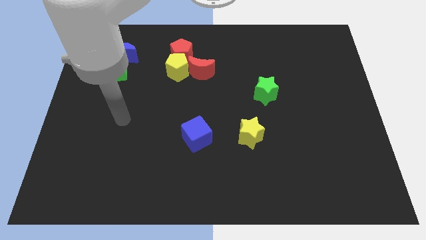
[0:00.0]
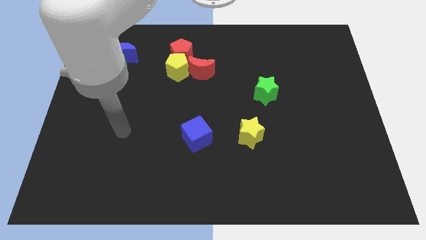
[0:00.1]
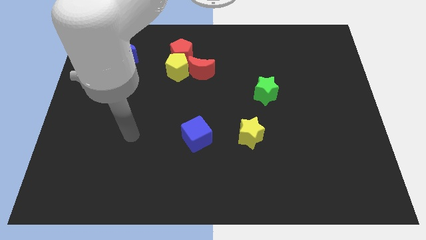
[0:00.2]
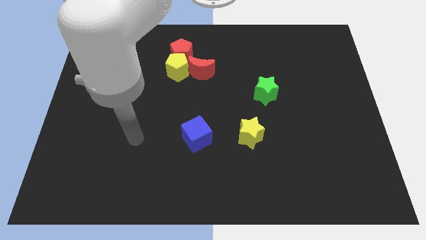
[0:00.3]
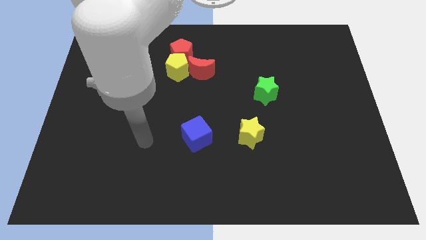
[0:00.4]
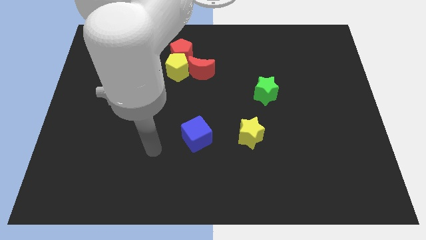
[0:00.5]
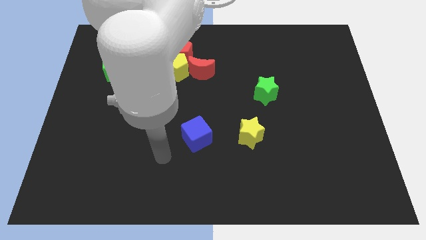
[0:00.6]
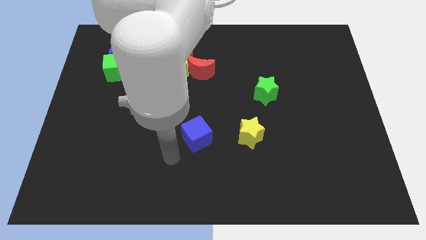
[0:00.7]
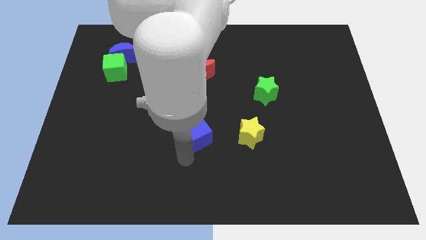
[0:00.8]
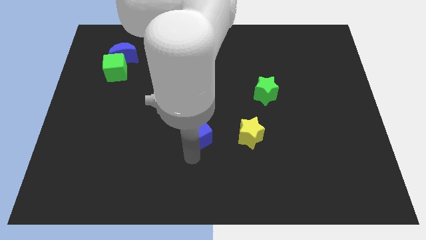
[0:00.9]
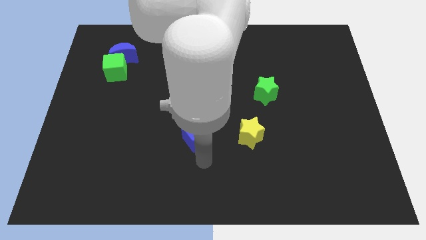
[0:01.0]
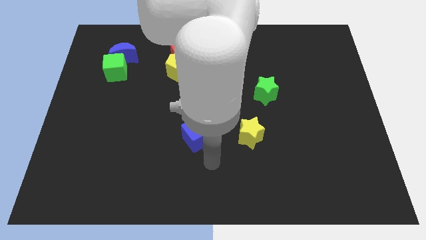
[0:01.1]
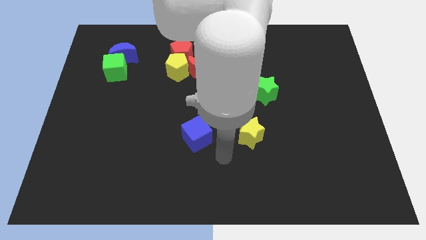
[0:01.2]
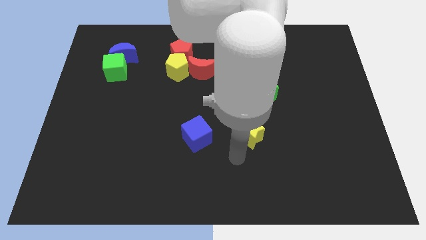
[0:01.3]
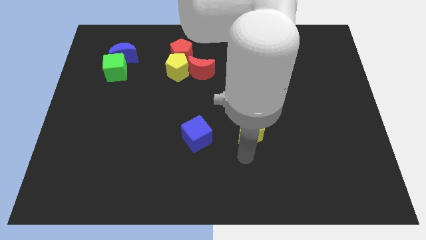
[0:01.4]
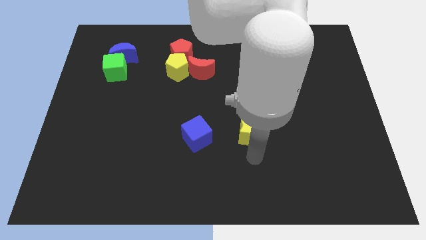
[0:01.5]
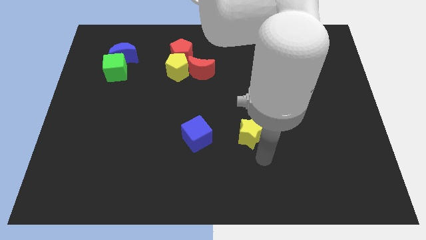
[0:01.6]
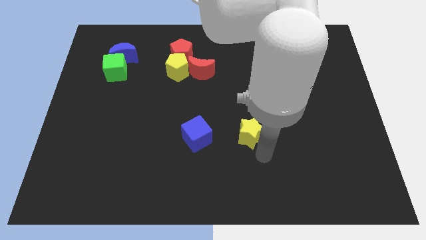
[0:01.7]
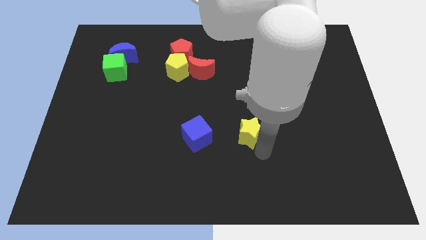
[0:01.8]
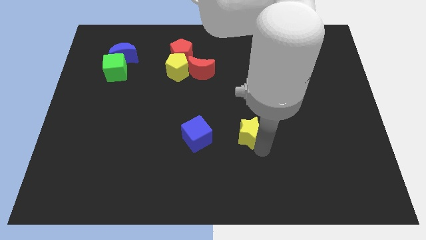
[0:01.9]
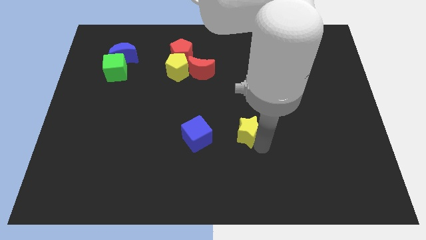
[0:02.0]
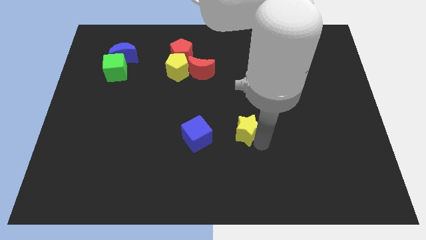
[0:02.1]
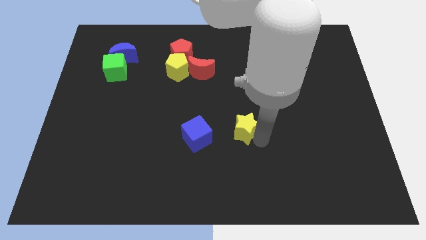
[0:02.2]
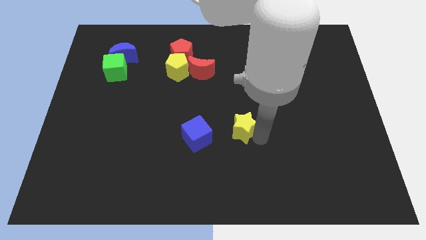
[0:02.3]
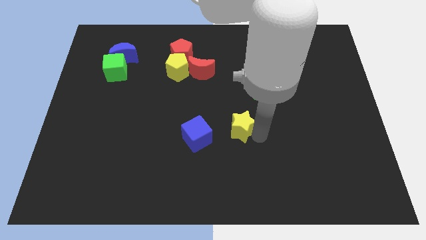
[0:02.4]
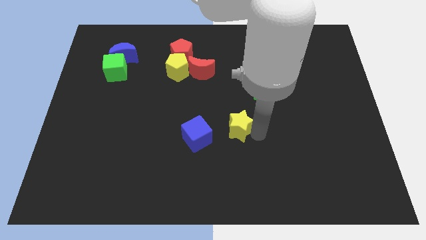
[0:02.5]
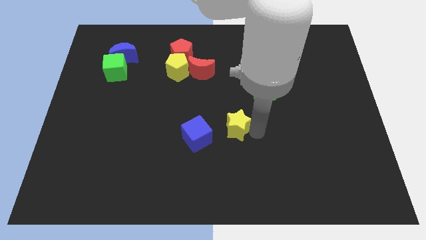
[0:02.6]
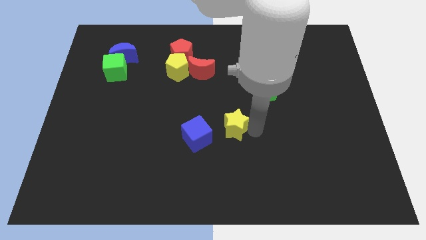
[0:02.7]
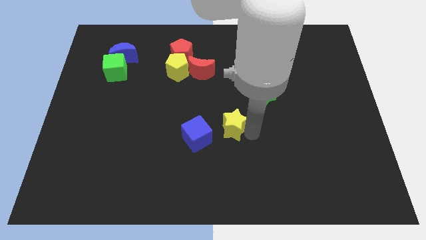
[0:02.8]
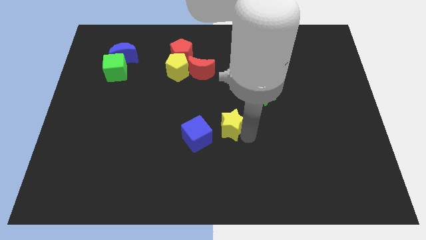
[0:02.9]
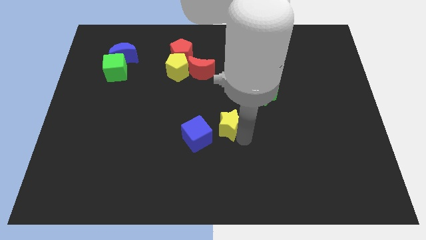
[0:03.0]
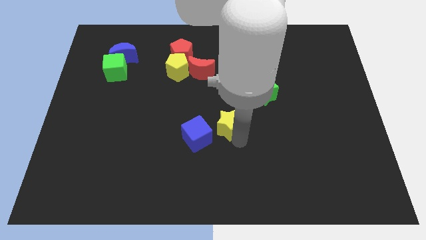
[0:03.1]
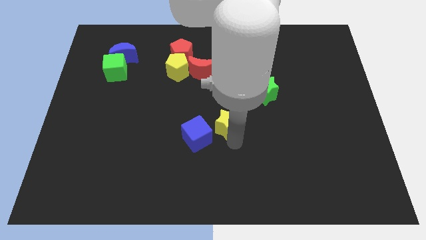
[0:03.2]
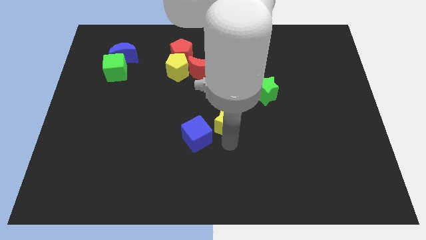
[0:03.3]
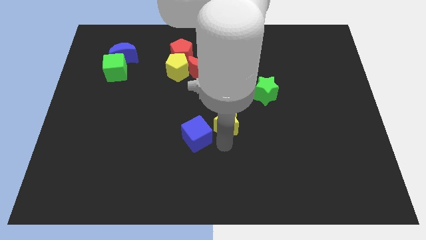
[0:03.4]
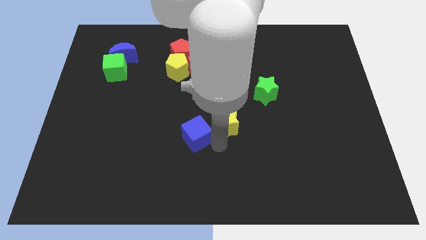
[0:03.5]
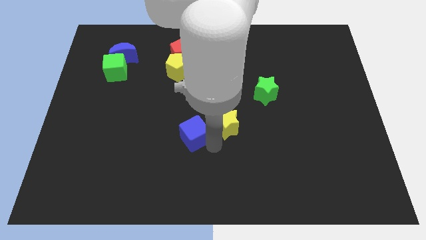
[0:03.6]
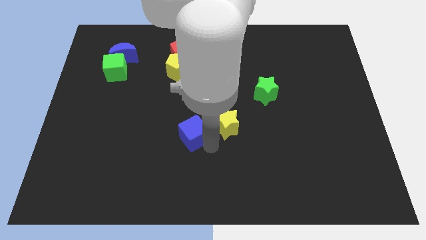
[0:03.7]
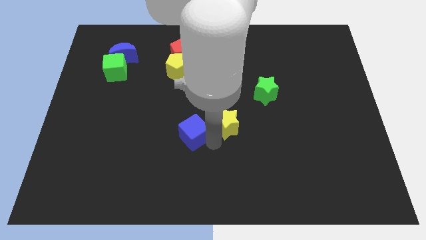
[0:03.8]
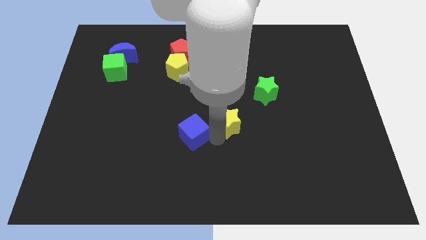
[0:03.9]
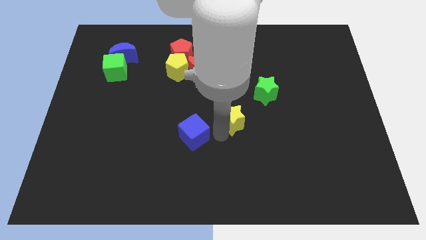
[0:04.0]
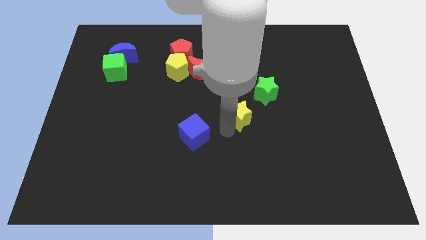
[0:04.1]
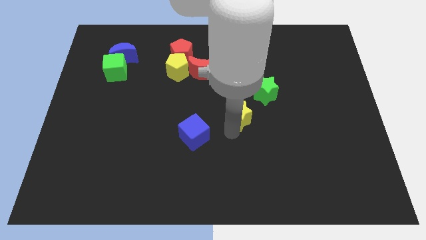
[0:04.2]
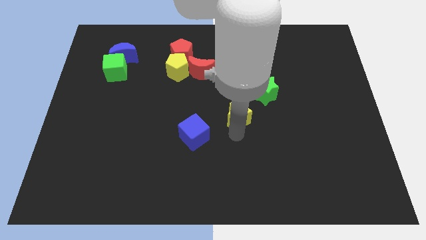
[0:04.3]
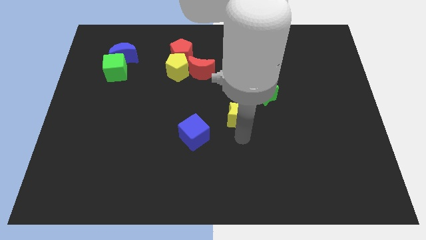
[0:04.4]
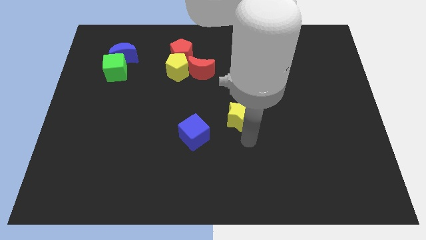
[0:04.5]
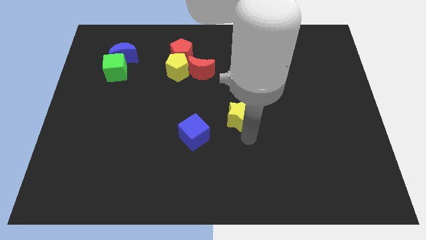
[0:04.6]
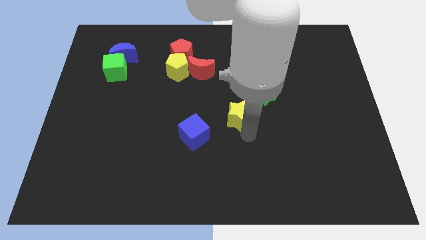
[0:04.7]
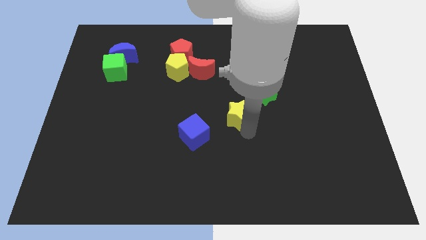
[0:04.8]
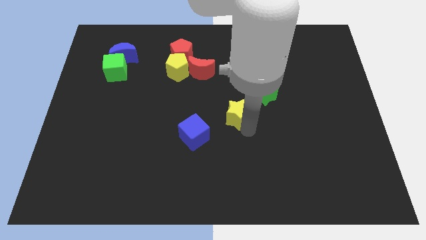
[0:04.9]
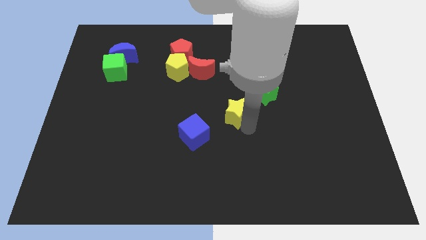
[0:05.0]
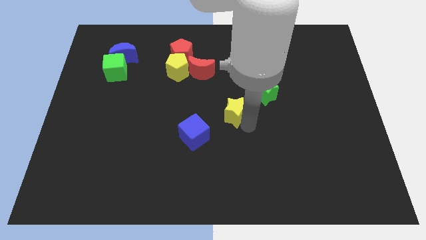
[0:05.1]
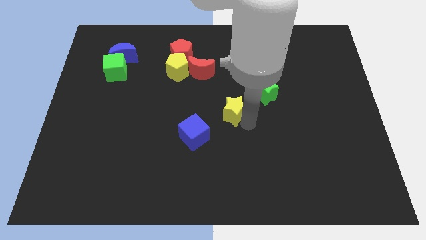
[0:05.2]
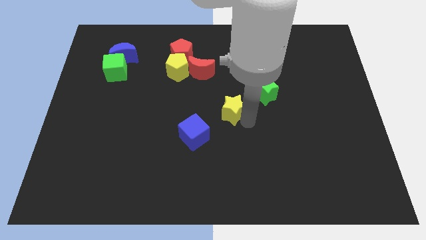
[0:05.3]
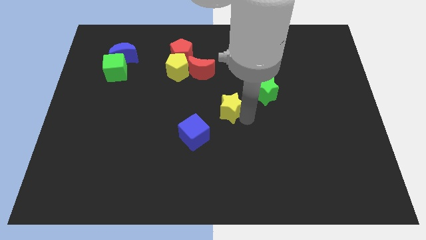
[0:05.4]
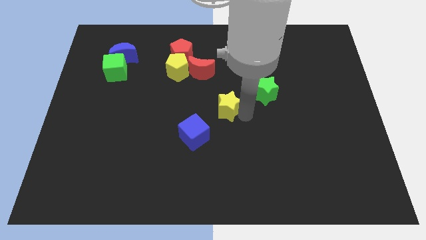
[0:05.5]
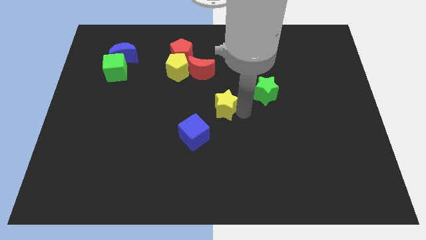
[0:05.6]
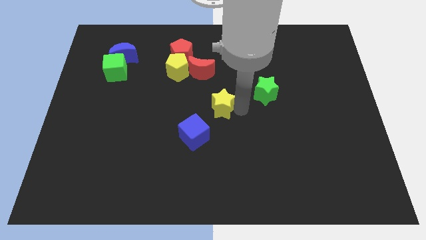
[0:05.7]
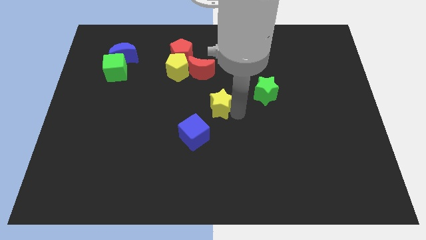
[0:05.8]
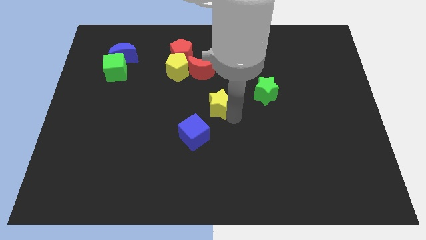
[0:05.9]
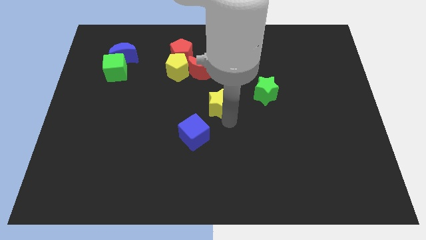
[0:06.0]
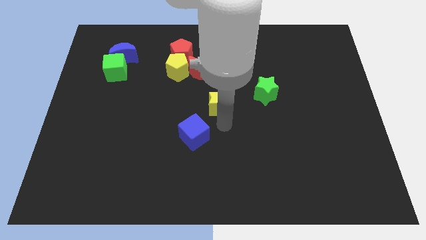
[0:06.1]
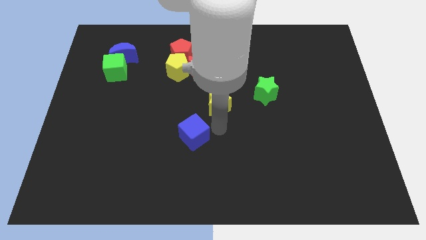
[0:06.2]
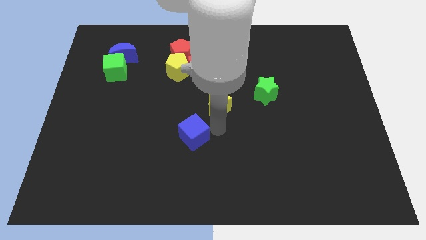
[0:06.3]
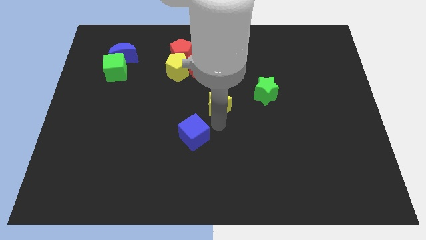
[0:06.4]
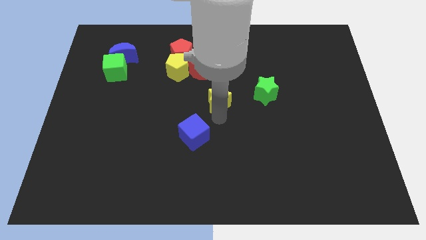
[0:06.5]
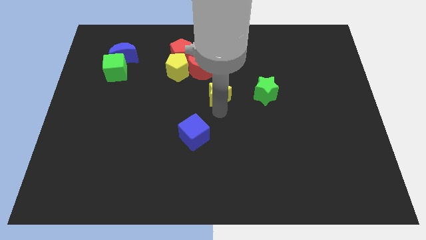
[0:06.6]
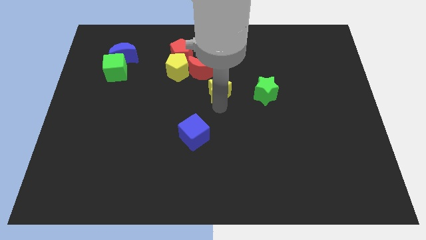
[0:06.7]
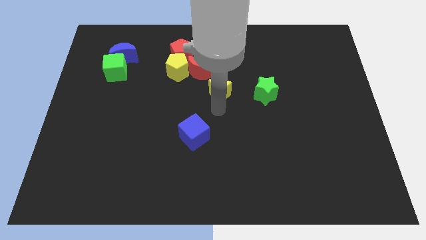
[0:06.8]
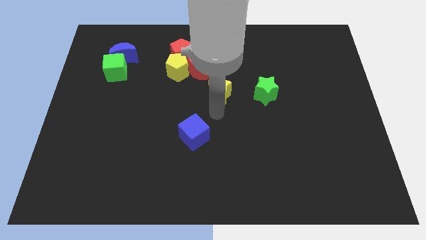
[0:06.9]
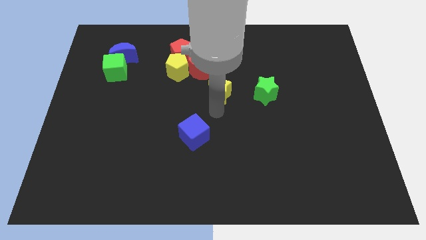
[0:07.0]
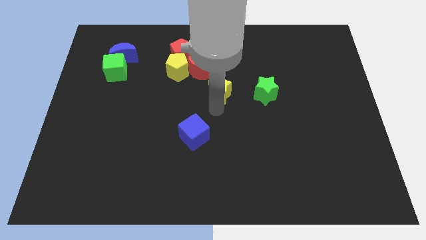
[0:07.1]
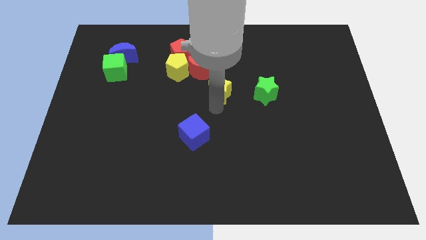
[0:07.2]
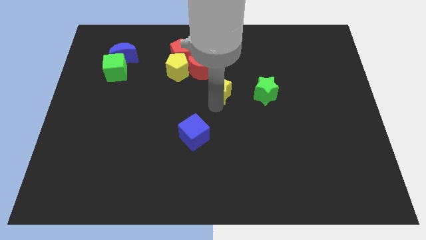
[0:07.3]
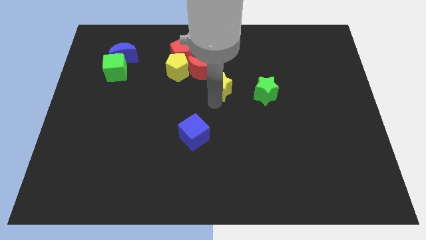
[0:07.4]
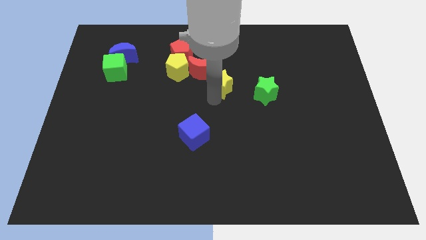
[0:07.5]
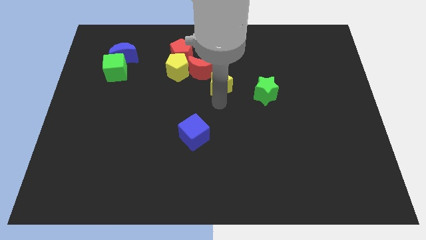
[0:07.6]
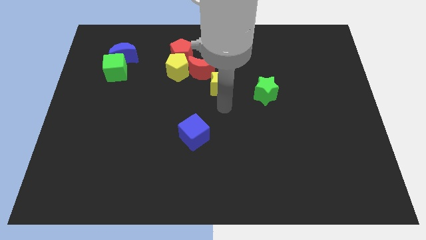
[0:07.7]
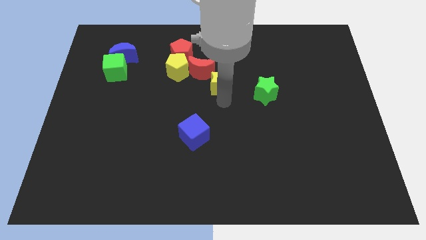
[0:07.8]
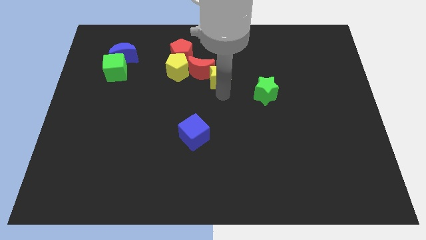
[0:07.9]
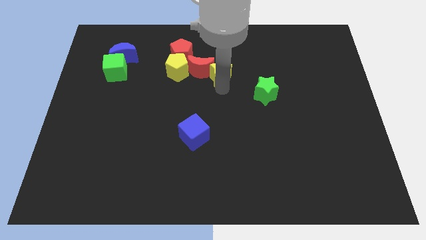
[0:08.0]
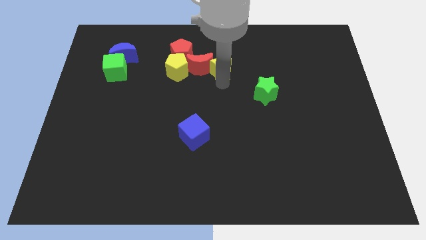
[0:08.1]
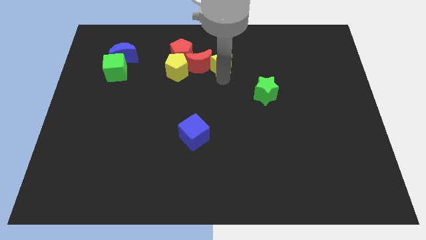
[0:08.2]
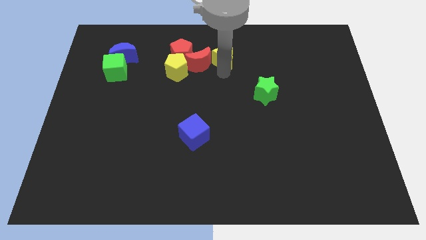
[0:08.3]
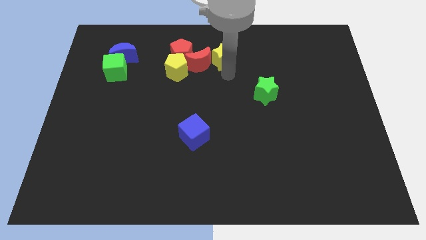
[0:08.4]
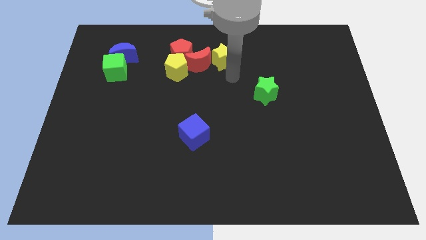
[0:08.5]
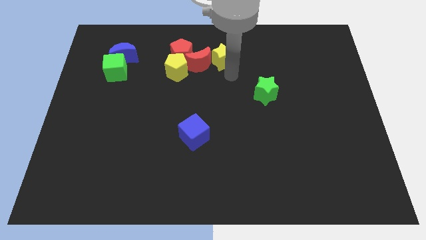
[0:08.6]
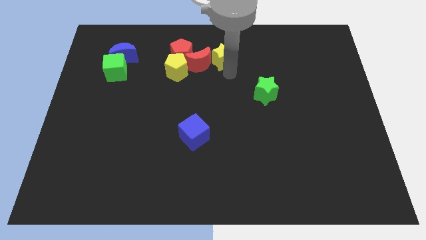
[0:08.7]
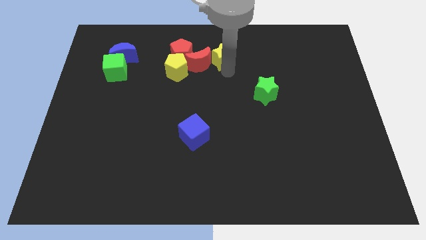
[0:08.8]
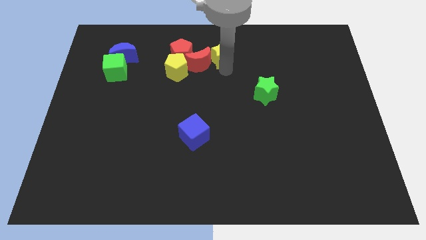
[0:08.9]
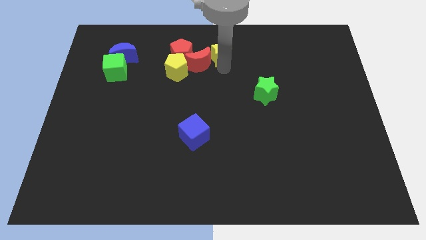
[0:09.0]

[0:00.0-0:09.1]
put the yellow star to the top
